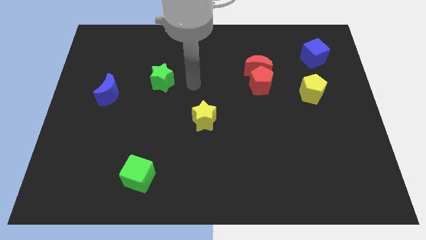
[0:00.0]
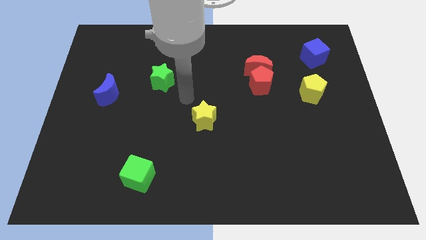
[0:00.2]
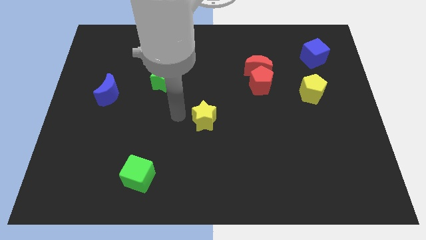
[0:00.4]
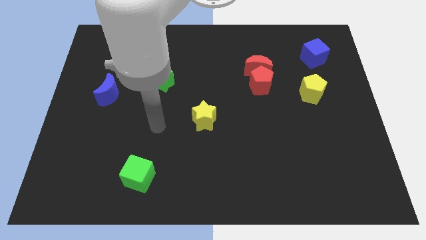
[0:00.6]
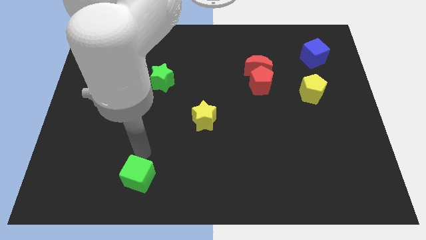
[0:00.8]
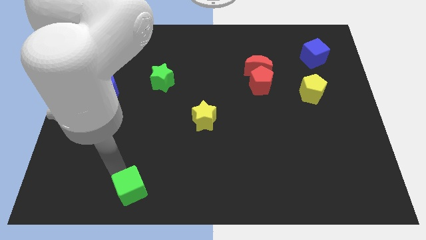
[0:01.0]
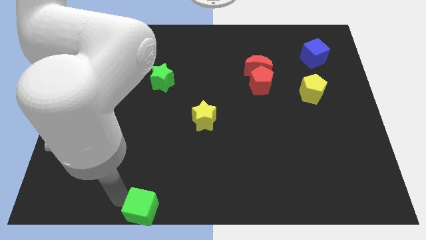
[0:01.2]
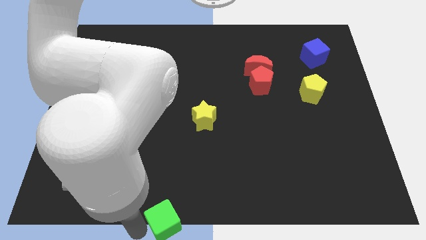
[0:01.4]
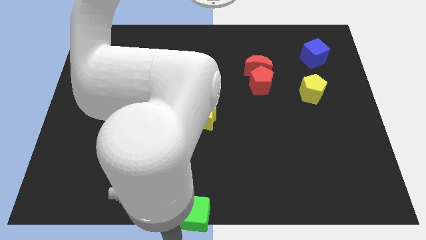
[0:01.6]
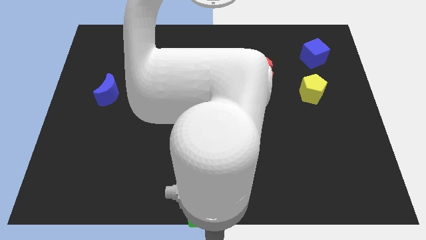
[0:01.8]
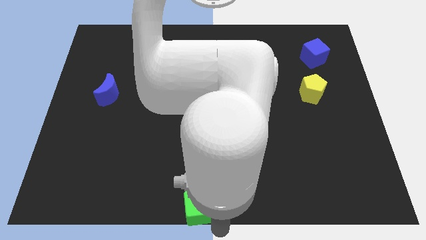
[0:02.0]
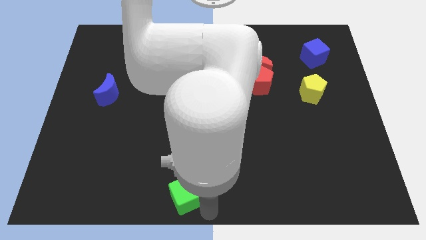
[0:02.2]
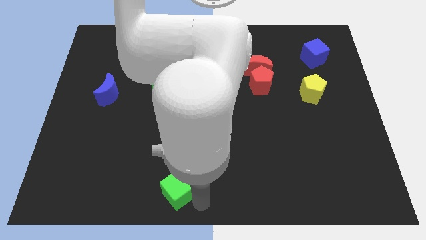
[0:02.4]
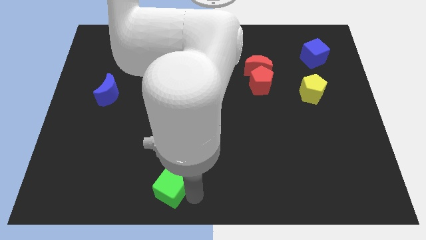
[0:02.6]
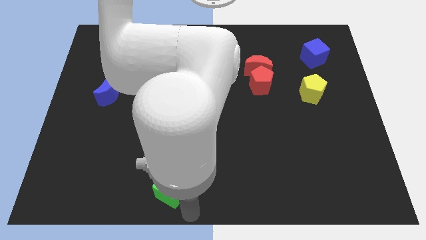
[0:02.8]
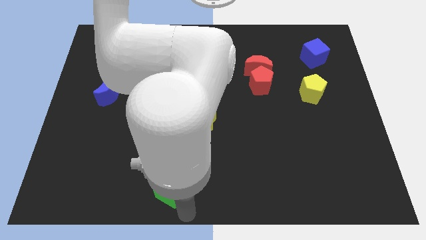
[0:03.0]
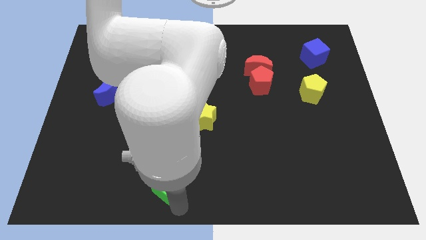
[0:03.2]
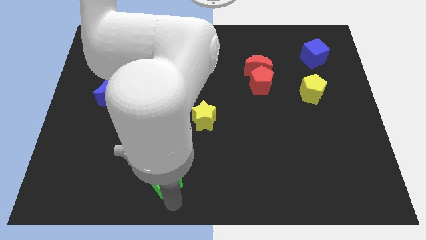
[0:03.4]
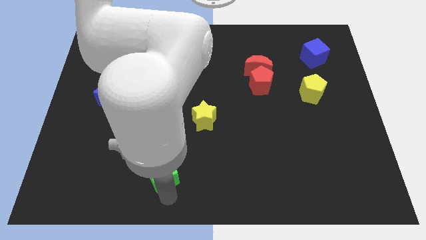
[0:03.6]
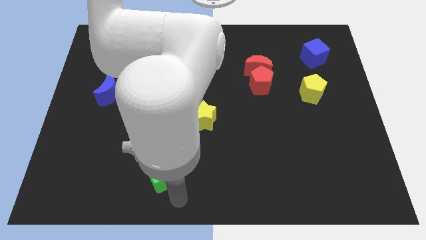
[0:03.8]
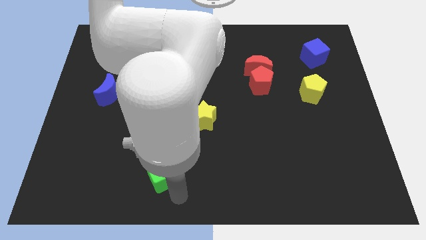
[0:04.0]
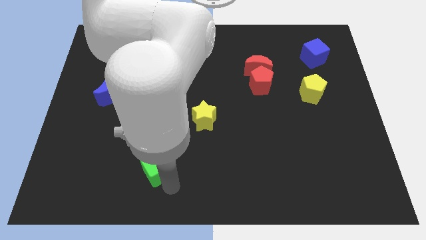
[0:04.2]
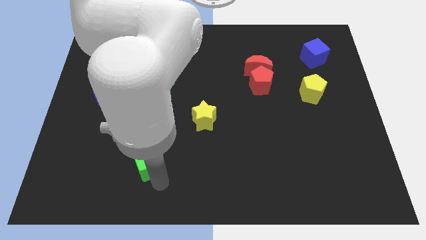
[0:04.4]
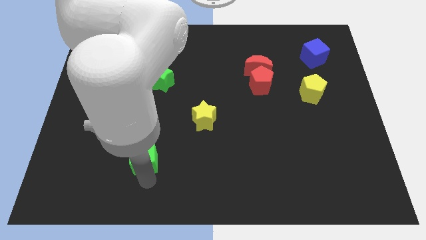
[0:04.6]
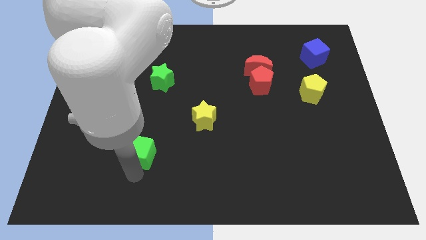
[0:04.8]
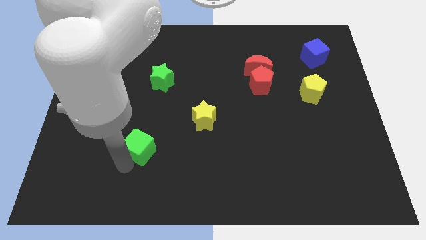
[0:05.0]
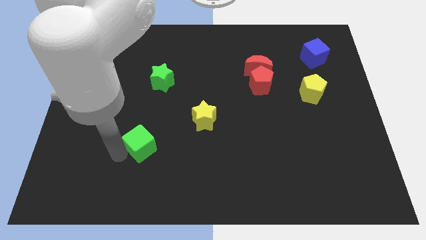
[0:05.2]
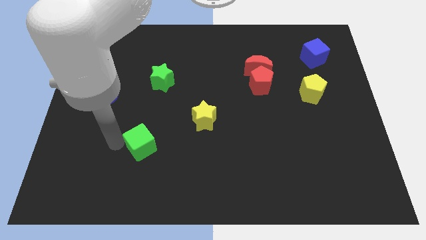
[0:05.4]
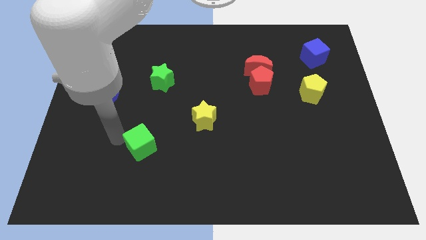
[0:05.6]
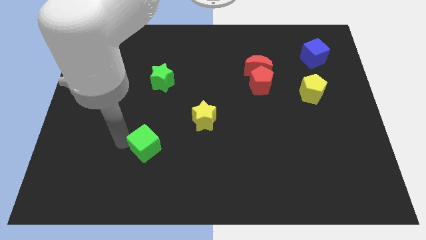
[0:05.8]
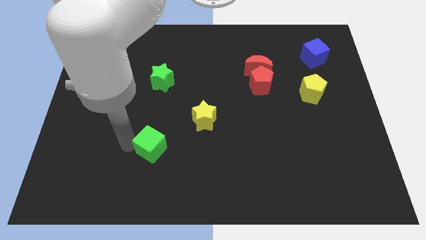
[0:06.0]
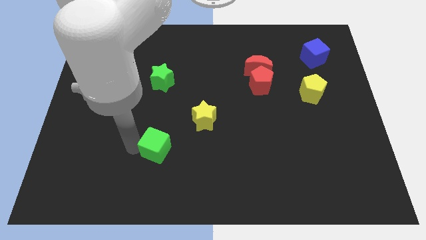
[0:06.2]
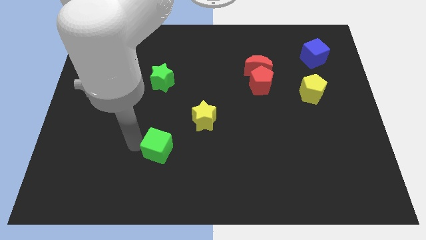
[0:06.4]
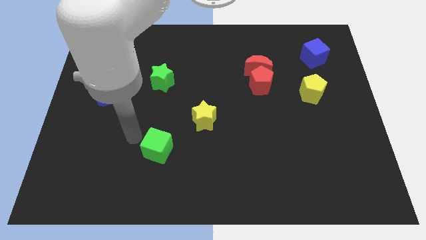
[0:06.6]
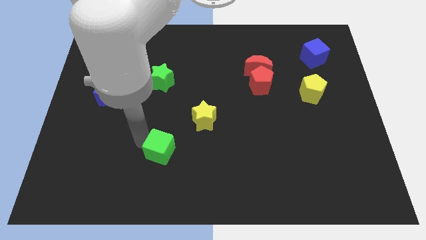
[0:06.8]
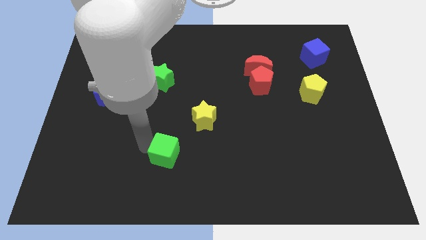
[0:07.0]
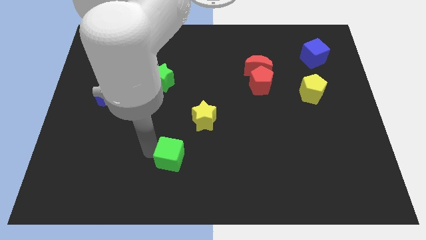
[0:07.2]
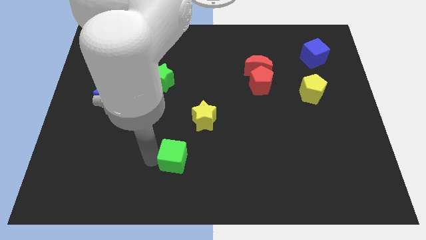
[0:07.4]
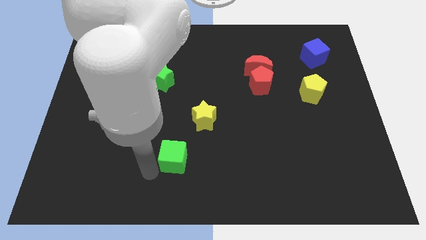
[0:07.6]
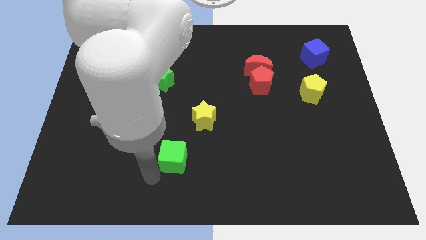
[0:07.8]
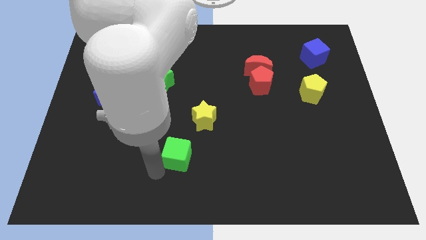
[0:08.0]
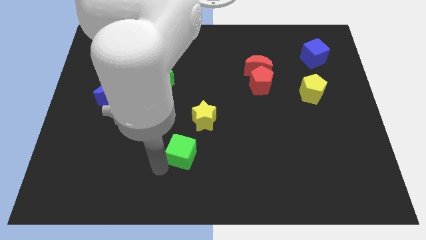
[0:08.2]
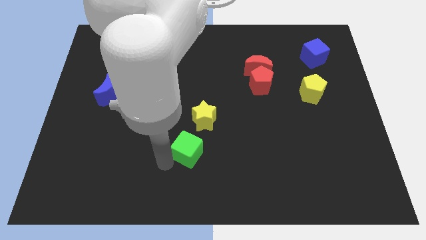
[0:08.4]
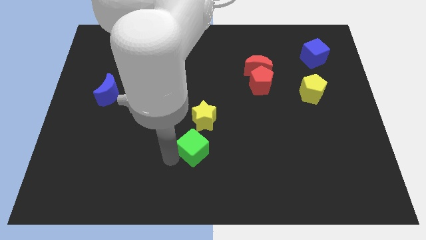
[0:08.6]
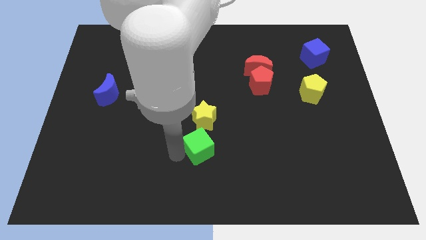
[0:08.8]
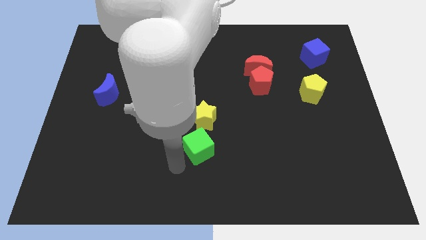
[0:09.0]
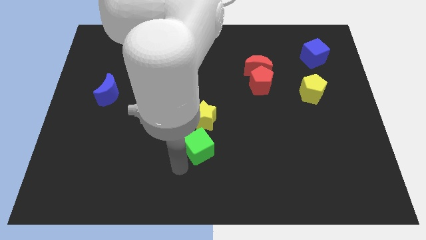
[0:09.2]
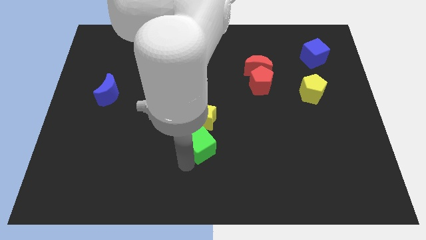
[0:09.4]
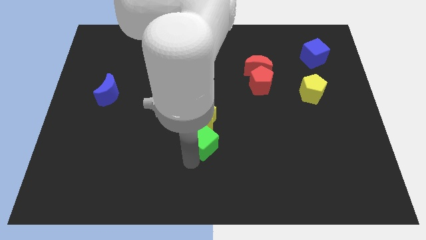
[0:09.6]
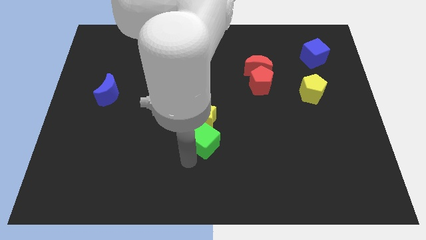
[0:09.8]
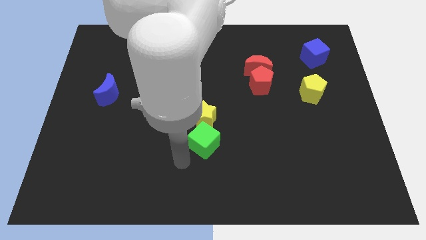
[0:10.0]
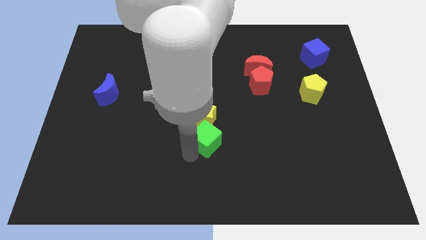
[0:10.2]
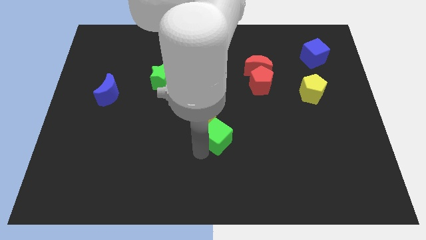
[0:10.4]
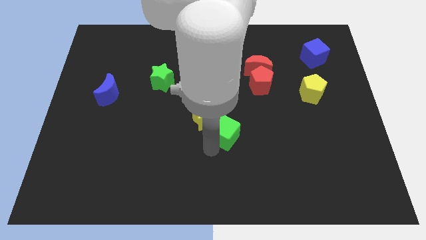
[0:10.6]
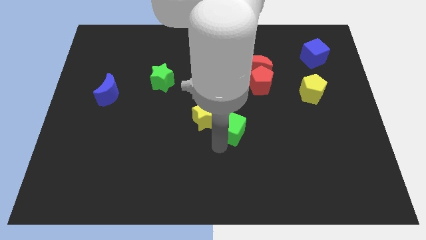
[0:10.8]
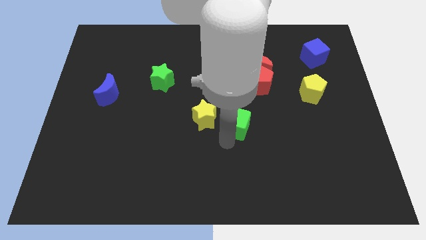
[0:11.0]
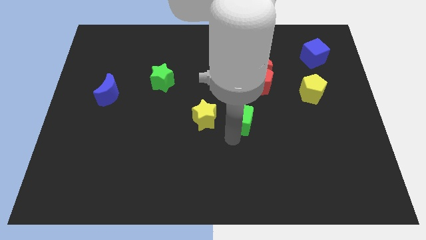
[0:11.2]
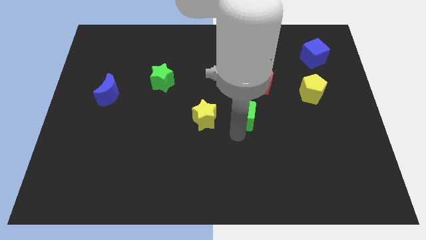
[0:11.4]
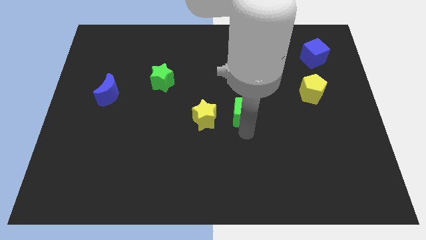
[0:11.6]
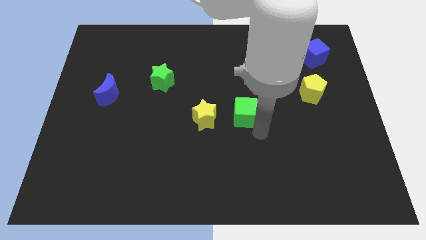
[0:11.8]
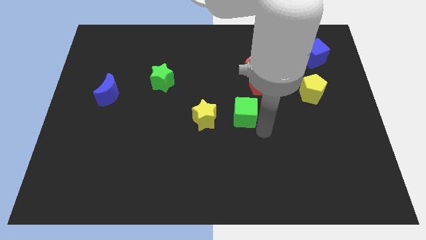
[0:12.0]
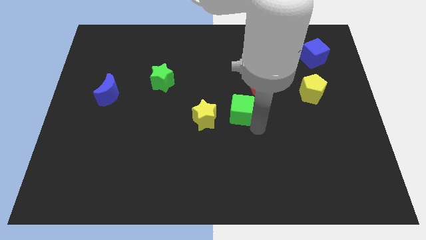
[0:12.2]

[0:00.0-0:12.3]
move the green cube to the top right side of the yellow star

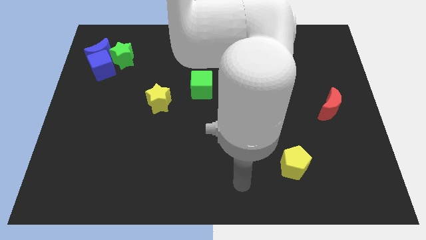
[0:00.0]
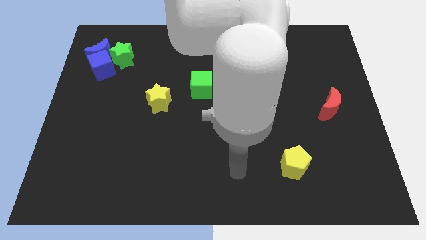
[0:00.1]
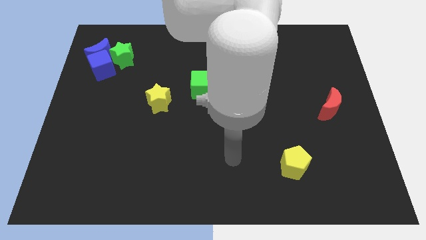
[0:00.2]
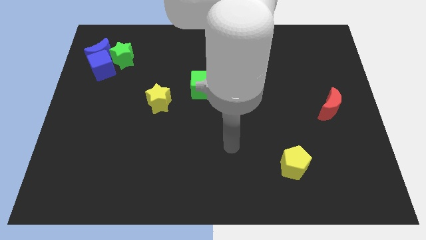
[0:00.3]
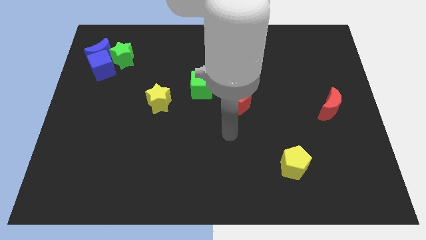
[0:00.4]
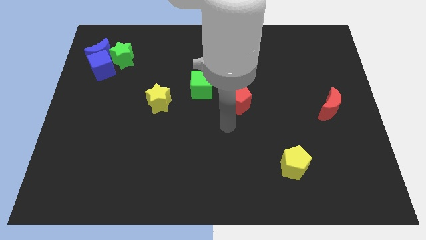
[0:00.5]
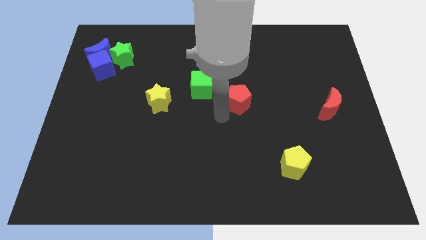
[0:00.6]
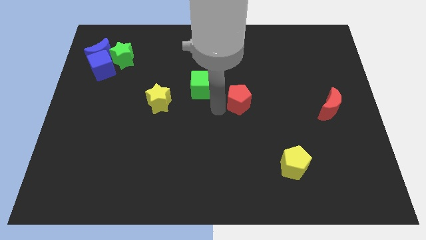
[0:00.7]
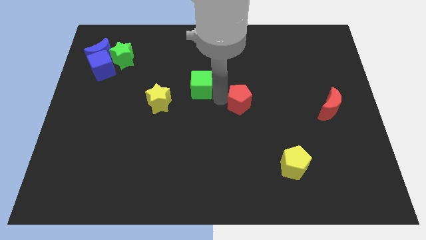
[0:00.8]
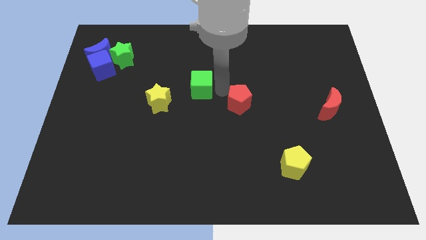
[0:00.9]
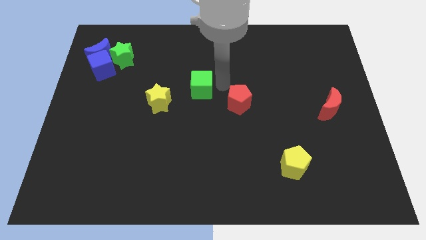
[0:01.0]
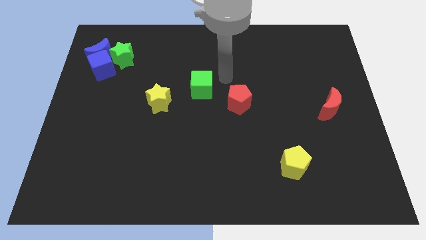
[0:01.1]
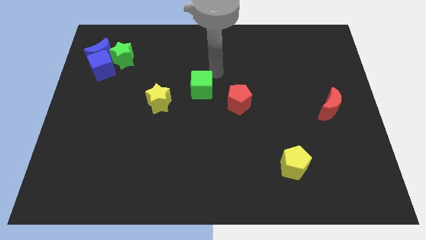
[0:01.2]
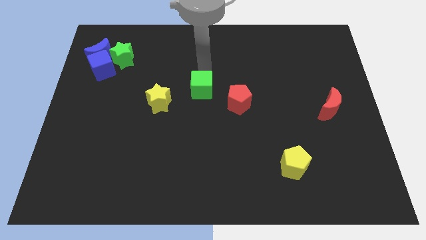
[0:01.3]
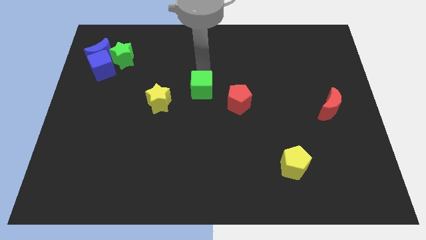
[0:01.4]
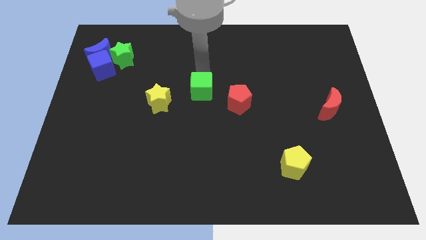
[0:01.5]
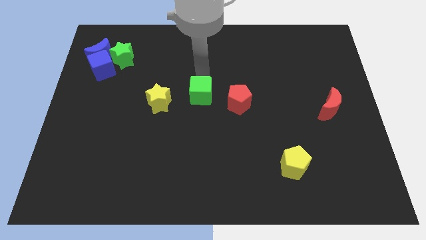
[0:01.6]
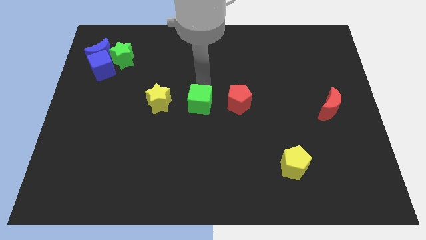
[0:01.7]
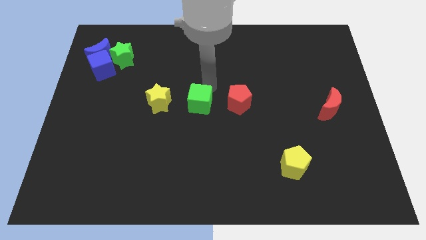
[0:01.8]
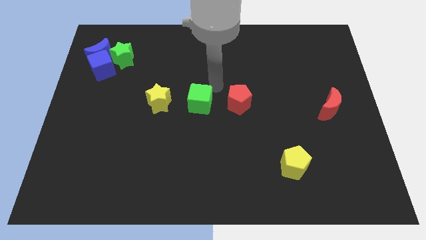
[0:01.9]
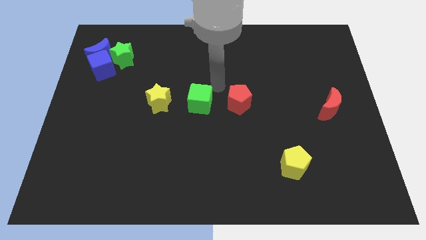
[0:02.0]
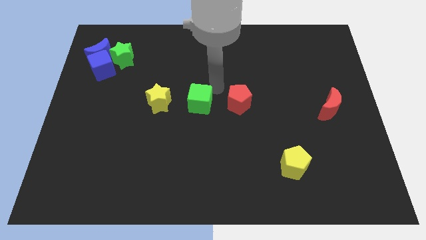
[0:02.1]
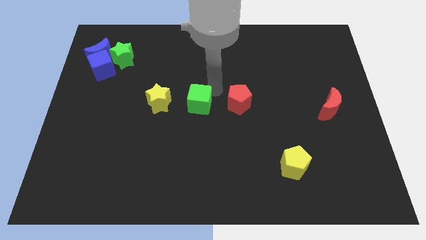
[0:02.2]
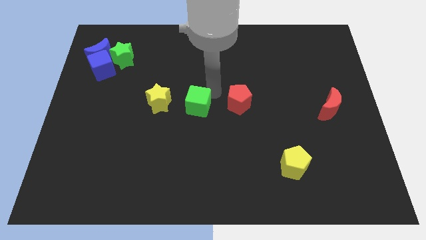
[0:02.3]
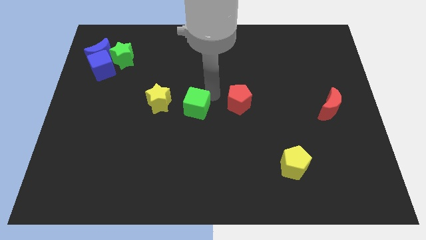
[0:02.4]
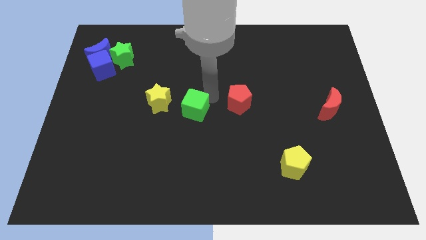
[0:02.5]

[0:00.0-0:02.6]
put the green cube diagonally down and to the right of the yellow star
